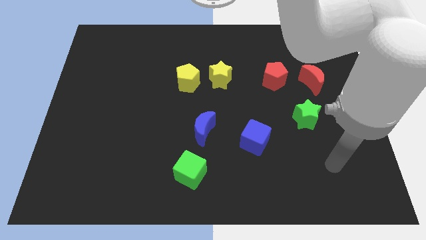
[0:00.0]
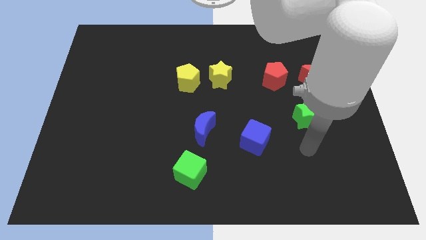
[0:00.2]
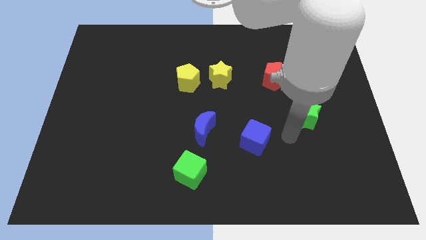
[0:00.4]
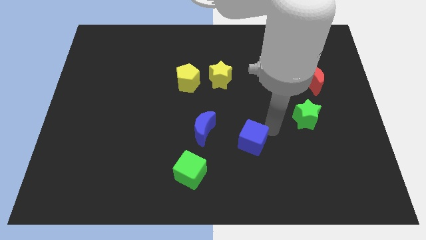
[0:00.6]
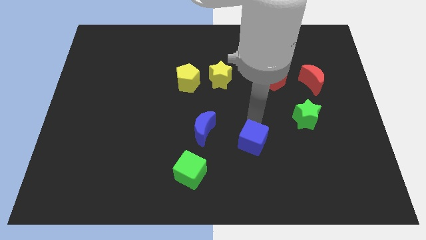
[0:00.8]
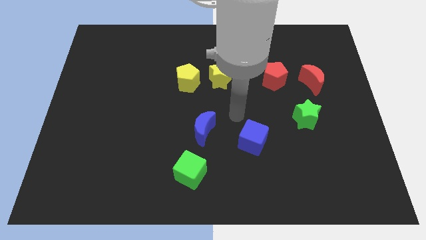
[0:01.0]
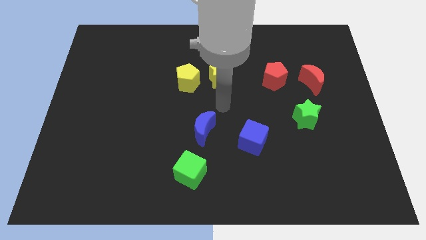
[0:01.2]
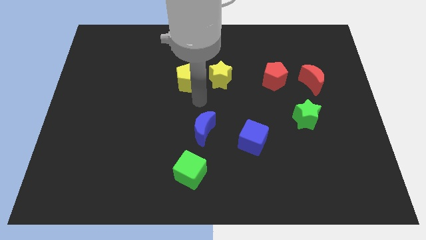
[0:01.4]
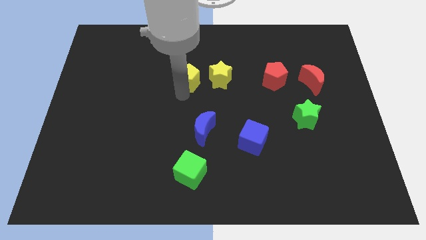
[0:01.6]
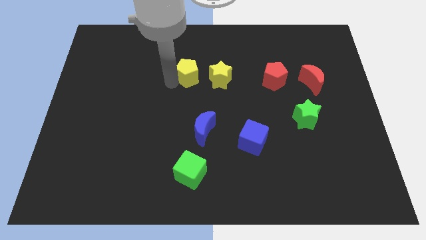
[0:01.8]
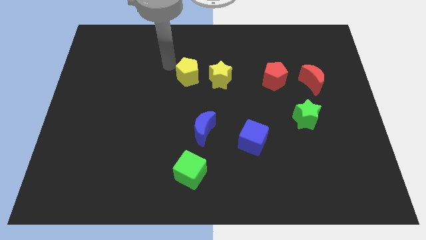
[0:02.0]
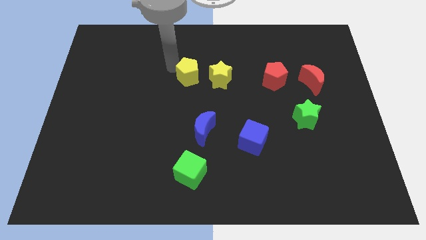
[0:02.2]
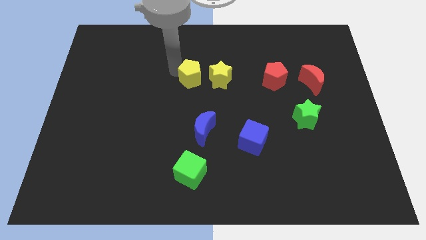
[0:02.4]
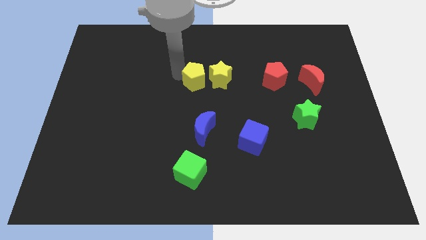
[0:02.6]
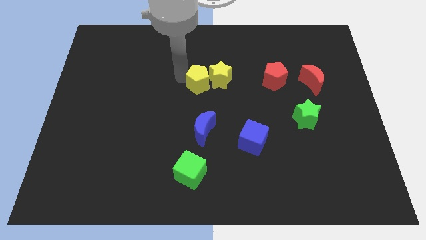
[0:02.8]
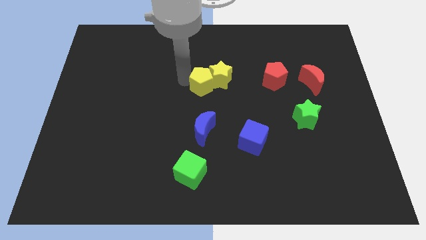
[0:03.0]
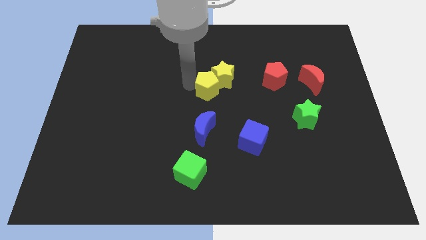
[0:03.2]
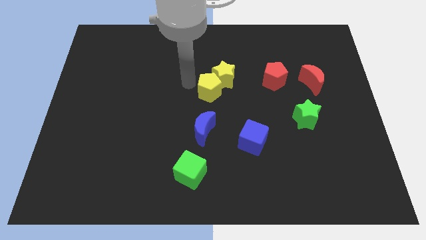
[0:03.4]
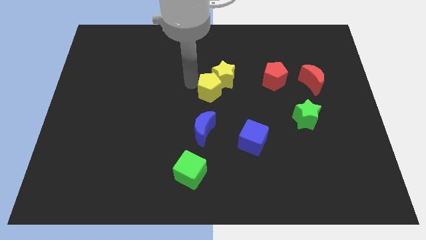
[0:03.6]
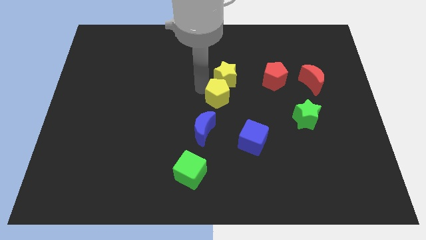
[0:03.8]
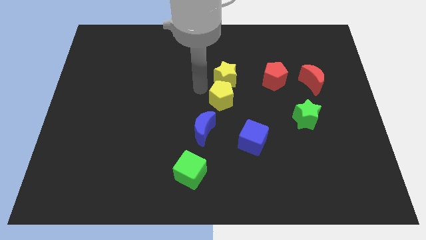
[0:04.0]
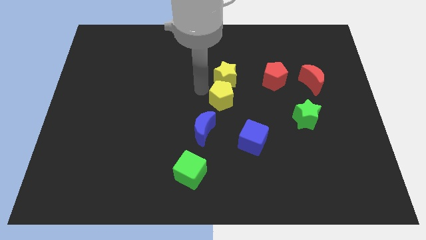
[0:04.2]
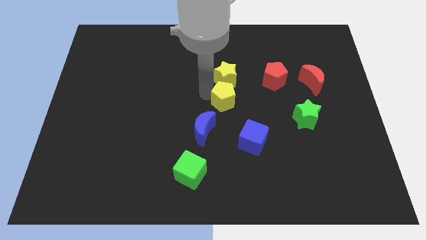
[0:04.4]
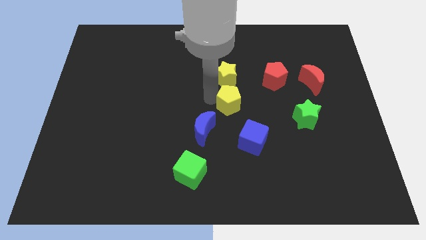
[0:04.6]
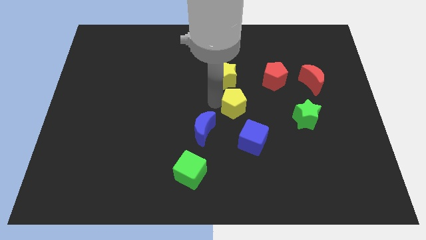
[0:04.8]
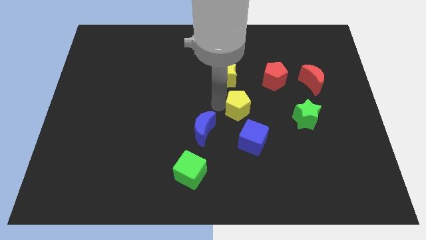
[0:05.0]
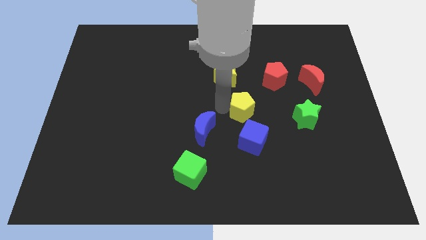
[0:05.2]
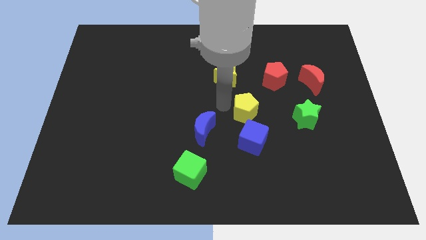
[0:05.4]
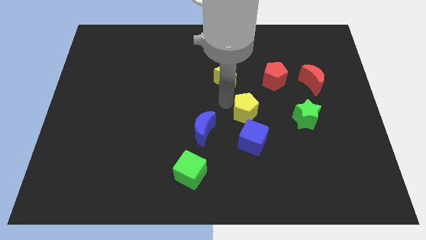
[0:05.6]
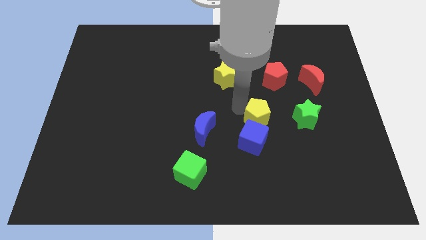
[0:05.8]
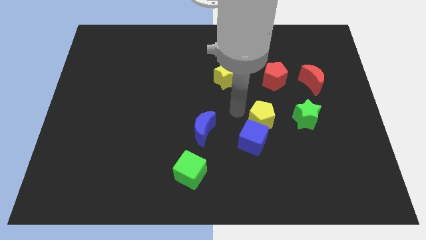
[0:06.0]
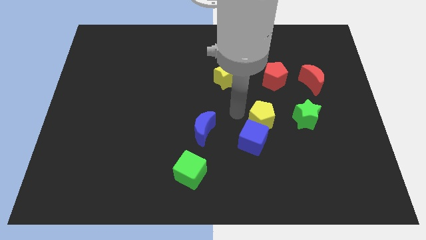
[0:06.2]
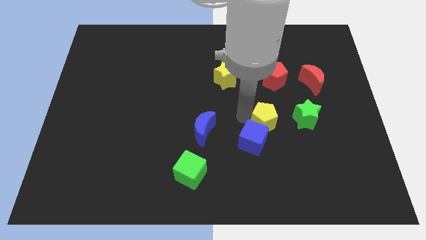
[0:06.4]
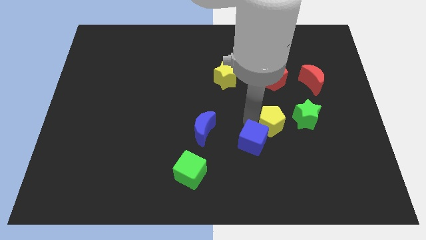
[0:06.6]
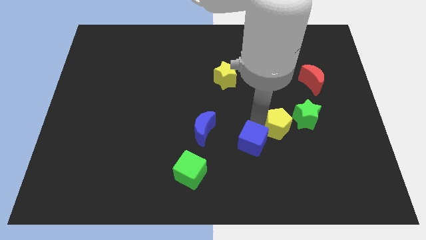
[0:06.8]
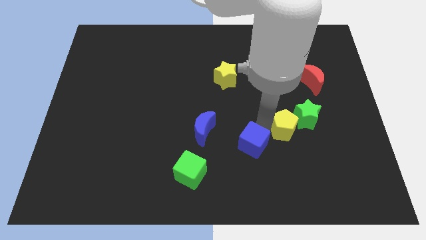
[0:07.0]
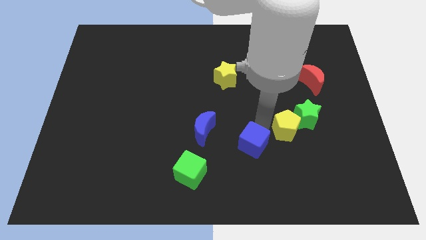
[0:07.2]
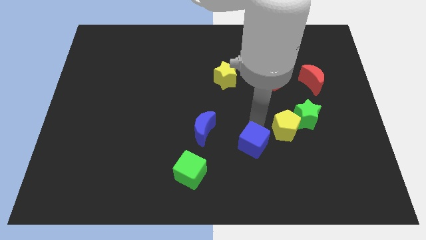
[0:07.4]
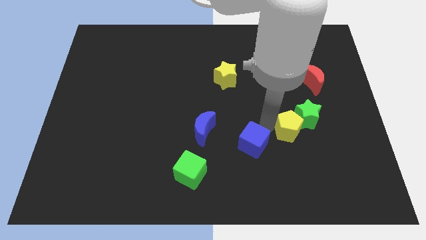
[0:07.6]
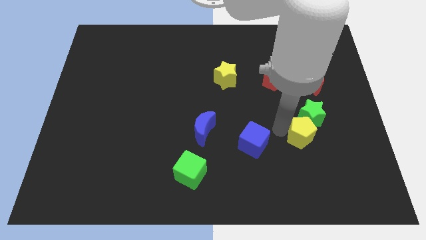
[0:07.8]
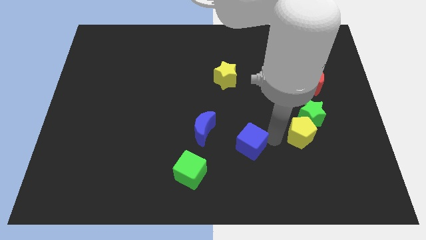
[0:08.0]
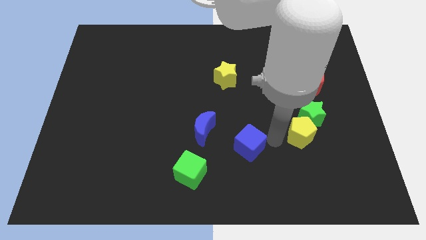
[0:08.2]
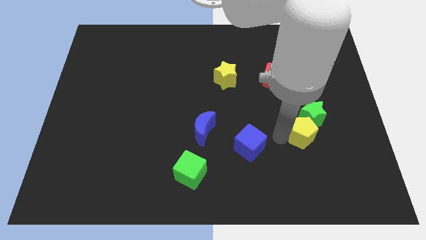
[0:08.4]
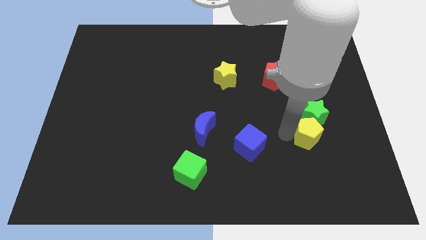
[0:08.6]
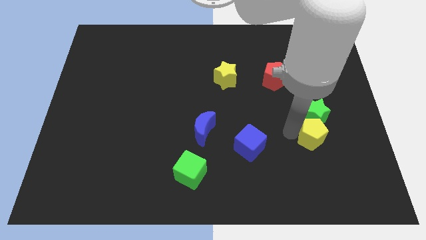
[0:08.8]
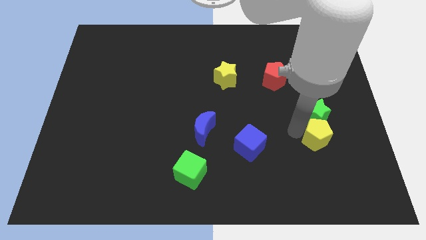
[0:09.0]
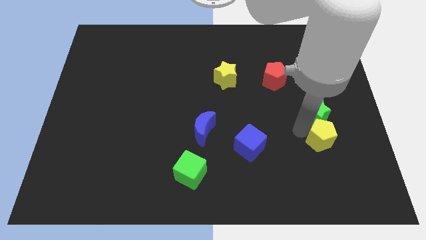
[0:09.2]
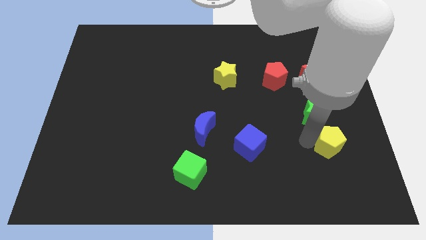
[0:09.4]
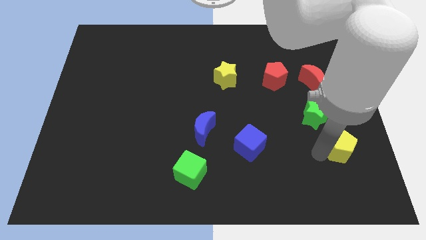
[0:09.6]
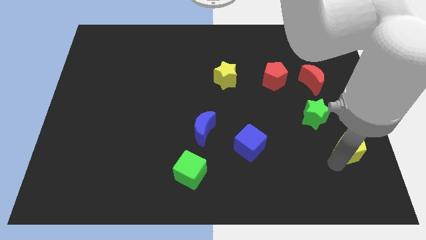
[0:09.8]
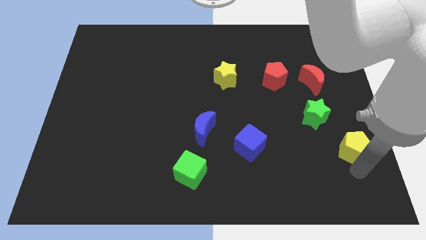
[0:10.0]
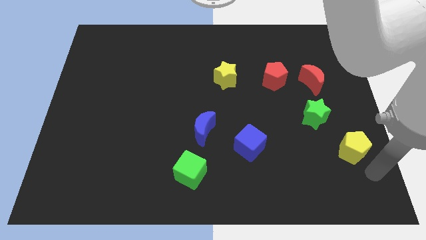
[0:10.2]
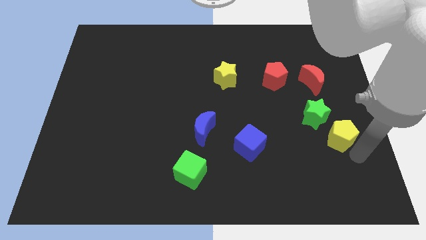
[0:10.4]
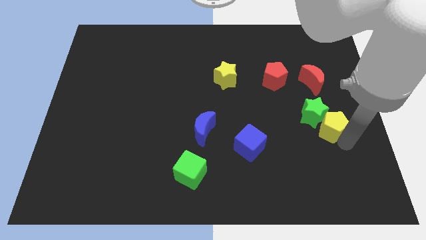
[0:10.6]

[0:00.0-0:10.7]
push the yellow pentagon to the bottom side of the red moon

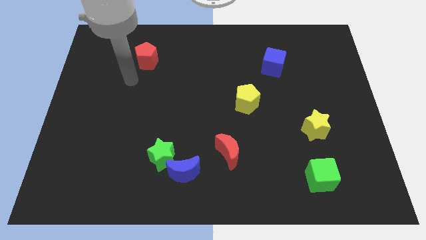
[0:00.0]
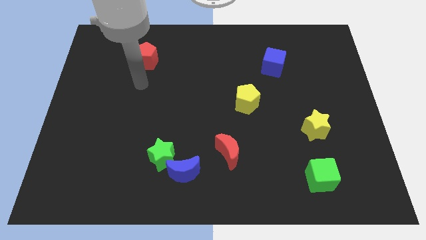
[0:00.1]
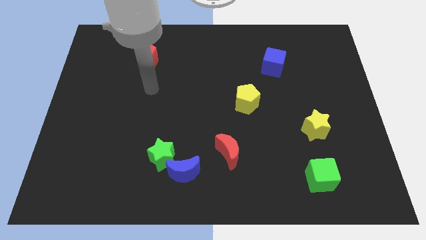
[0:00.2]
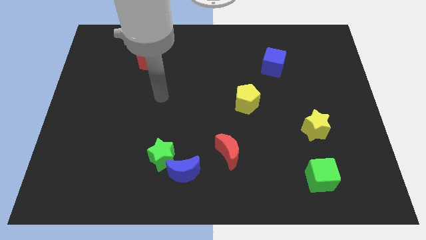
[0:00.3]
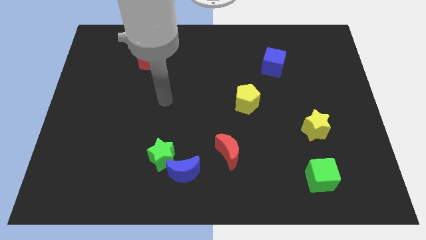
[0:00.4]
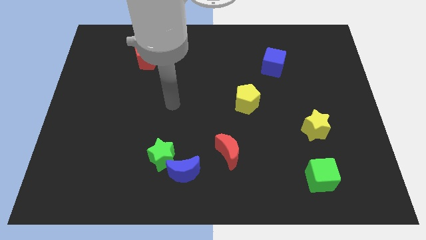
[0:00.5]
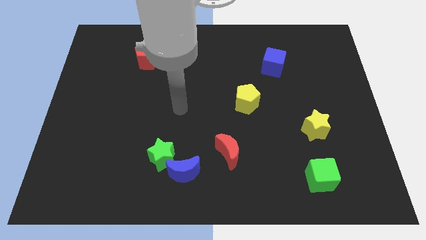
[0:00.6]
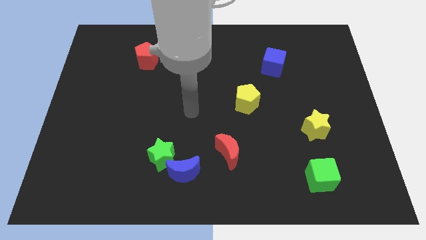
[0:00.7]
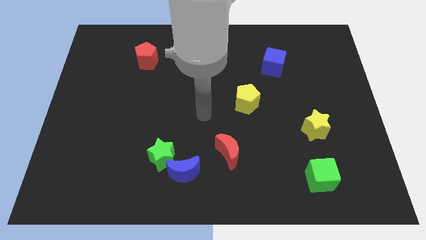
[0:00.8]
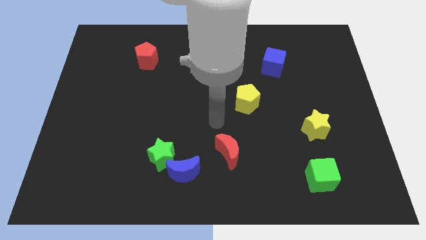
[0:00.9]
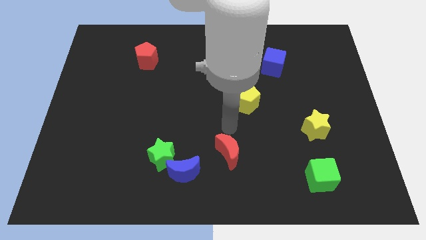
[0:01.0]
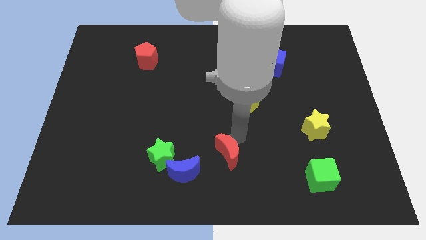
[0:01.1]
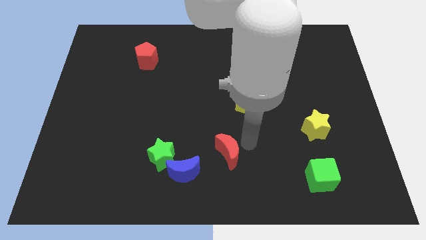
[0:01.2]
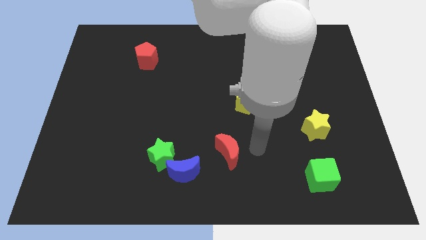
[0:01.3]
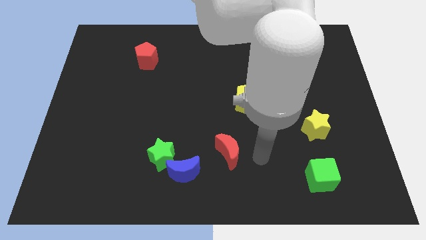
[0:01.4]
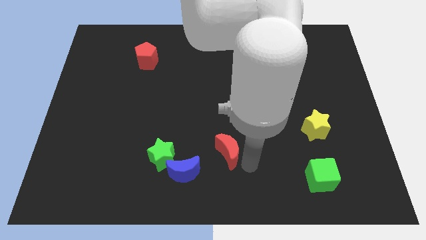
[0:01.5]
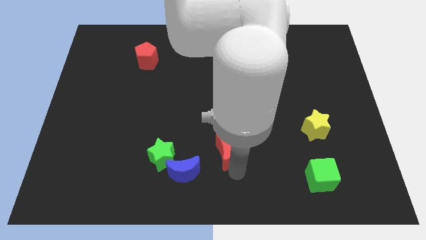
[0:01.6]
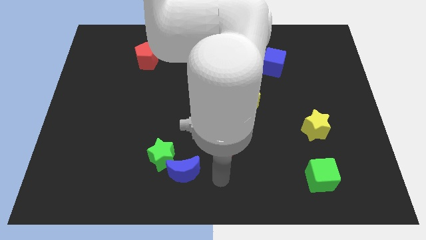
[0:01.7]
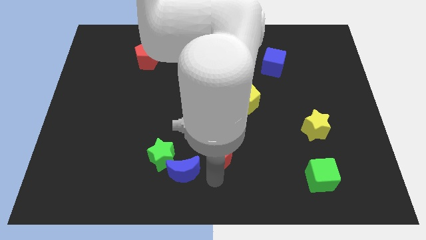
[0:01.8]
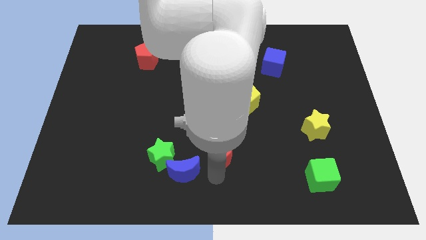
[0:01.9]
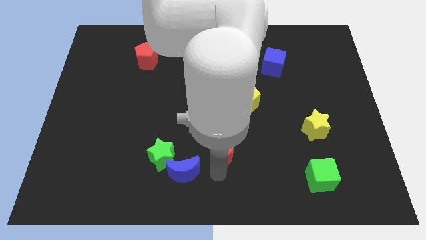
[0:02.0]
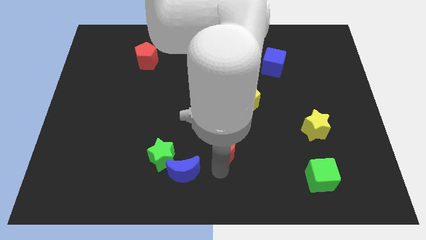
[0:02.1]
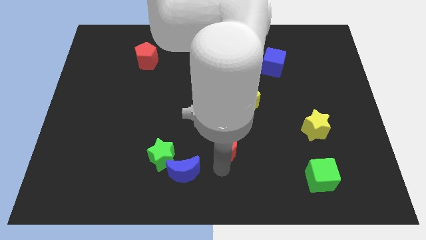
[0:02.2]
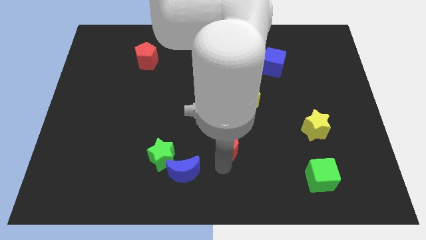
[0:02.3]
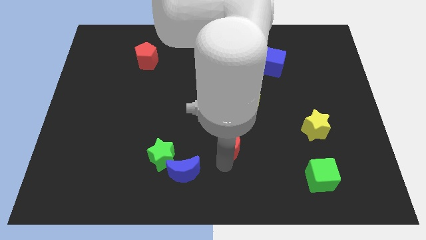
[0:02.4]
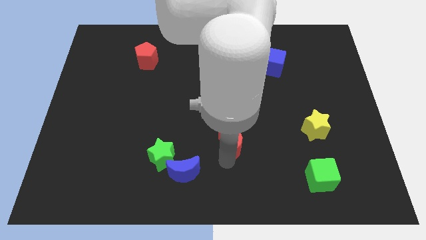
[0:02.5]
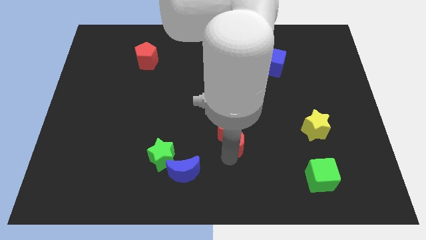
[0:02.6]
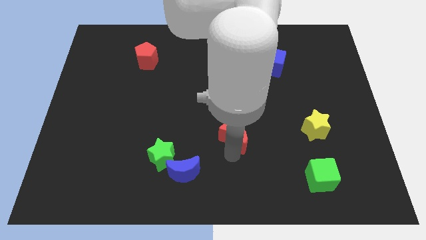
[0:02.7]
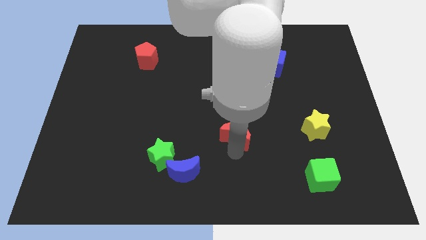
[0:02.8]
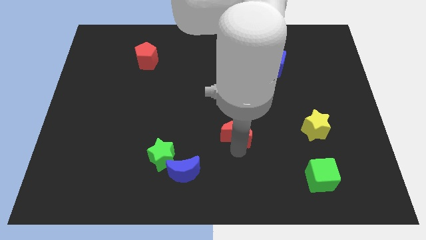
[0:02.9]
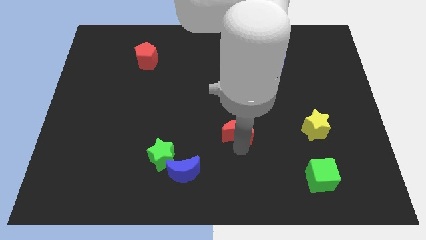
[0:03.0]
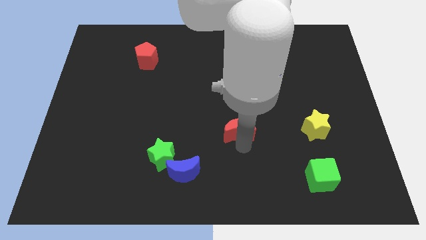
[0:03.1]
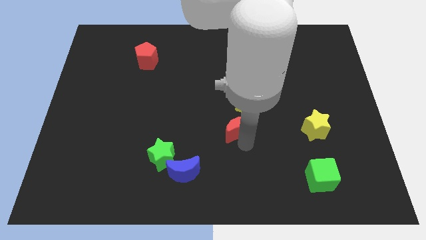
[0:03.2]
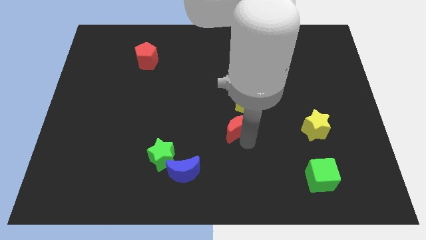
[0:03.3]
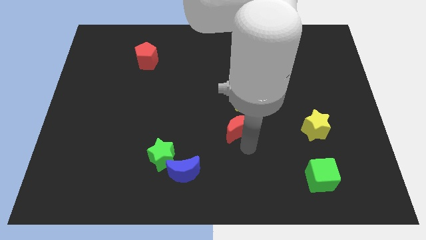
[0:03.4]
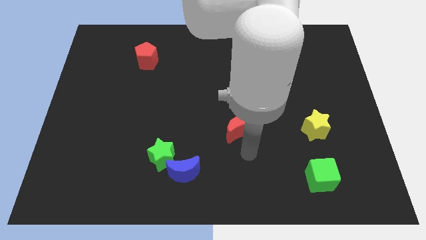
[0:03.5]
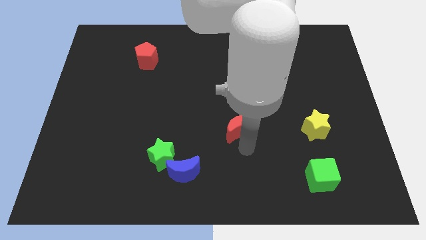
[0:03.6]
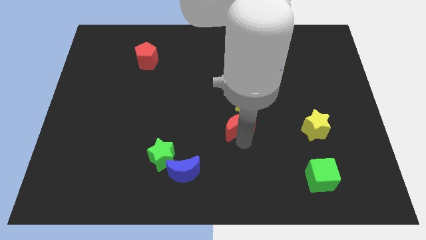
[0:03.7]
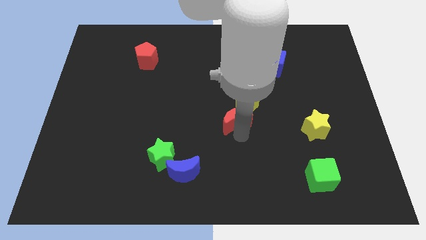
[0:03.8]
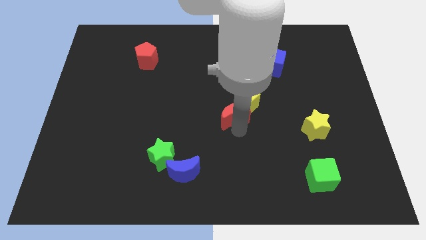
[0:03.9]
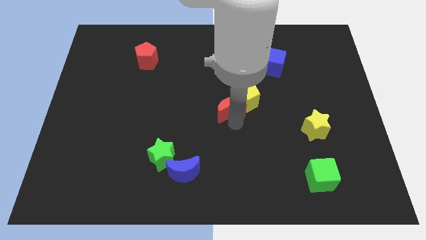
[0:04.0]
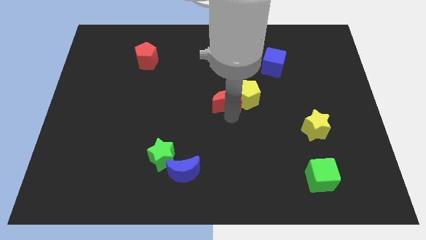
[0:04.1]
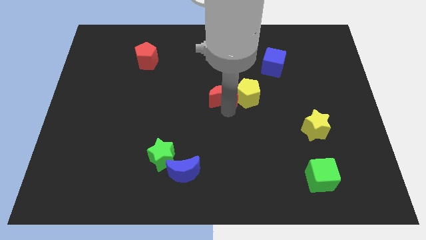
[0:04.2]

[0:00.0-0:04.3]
put the red moon to the top left side of the yellow pentagon
